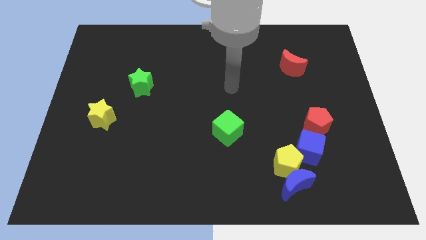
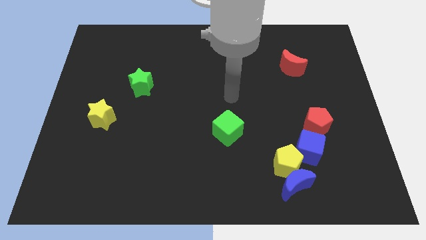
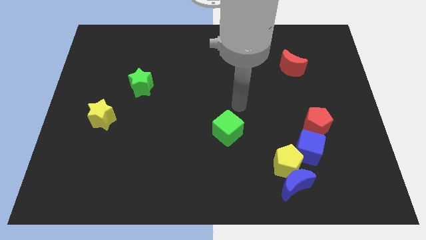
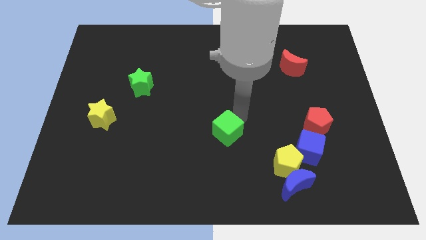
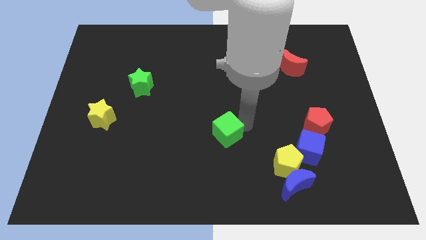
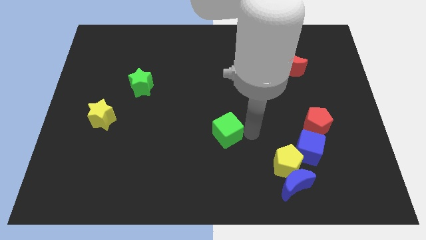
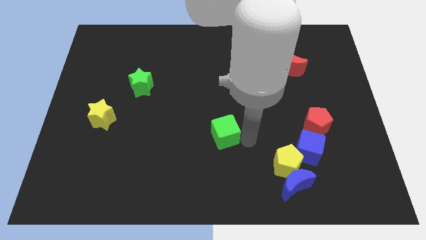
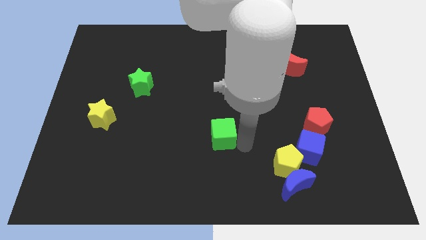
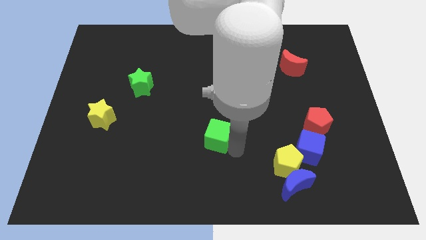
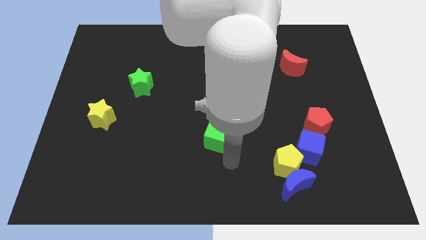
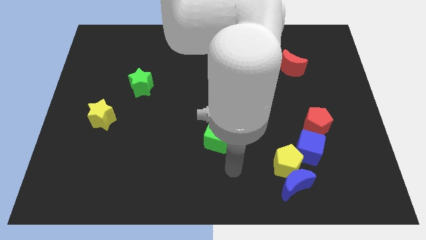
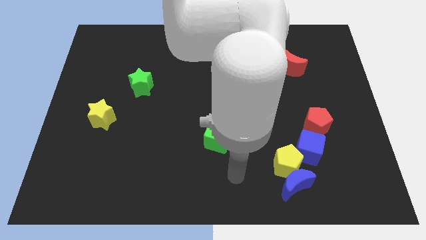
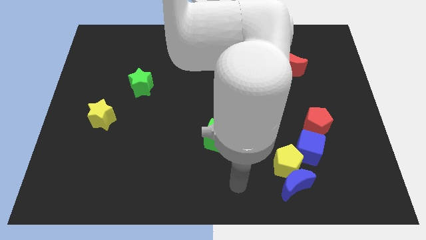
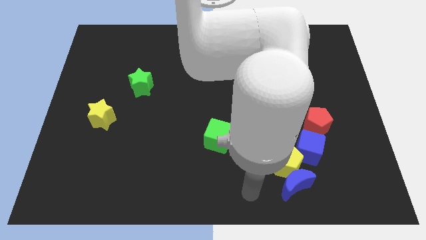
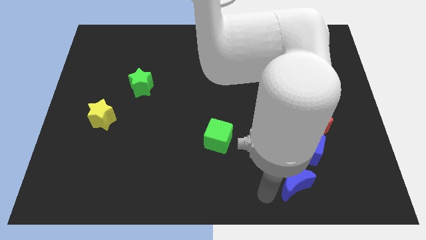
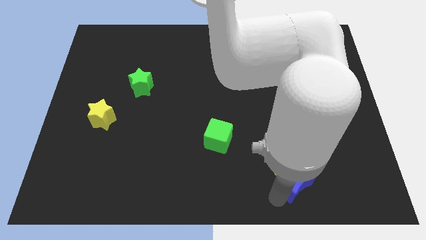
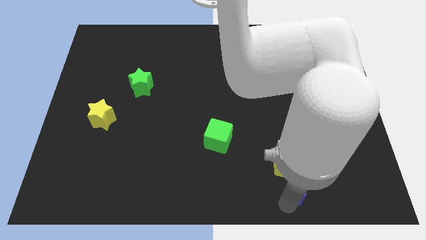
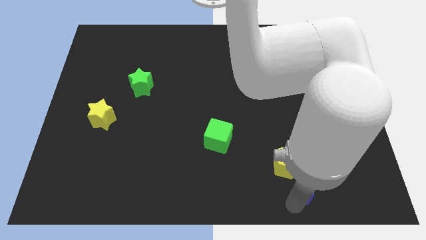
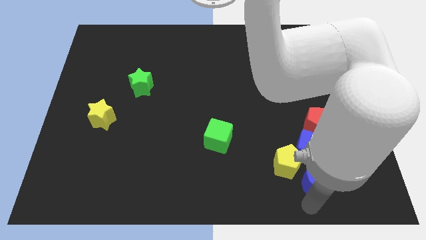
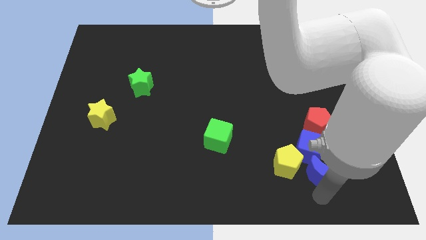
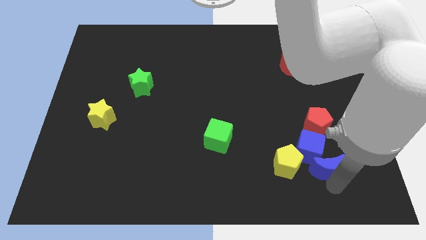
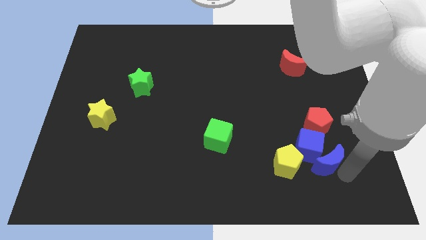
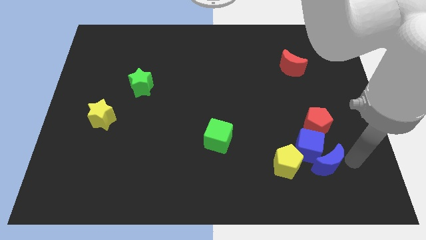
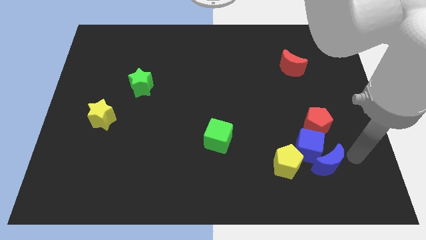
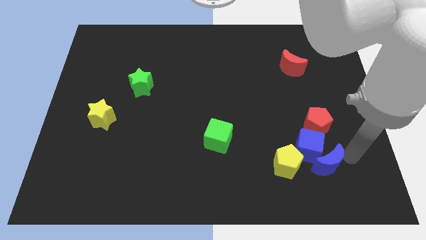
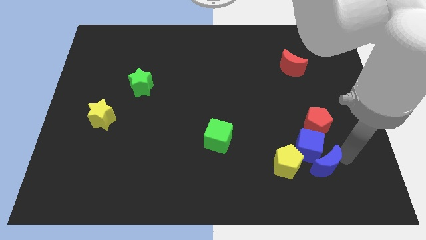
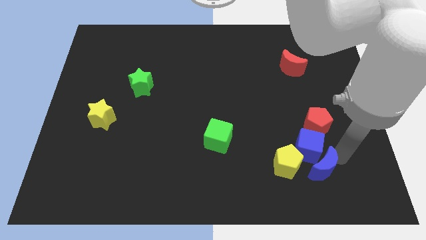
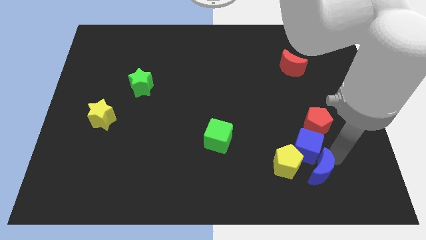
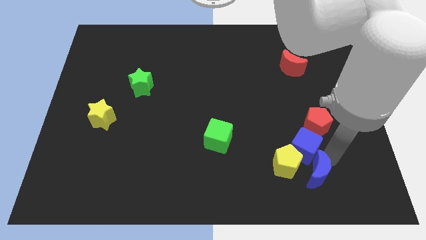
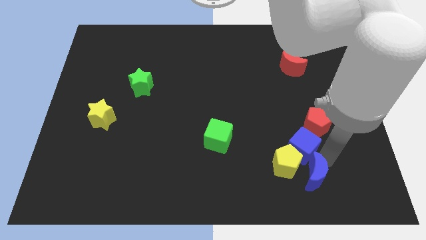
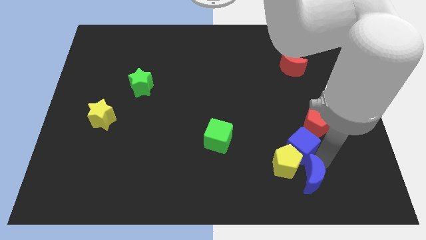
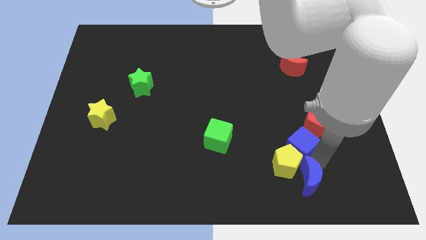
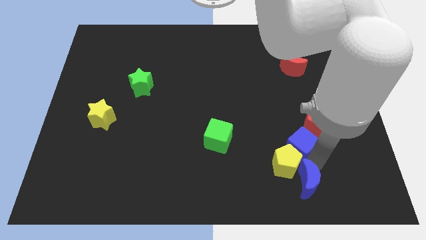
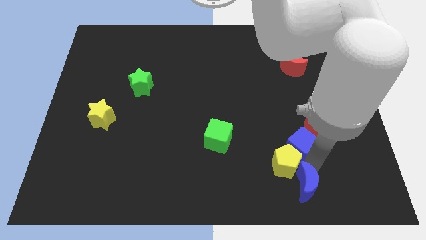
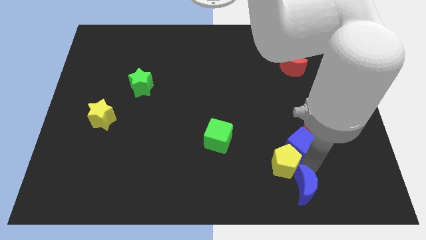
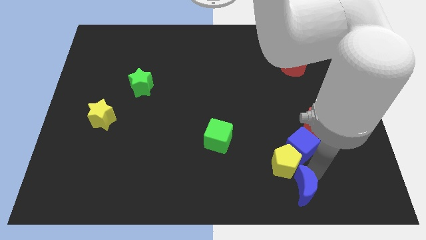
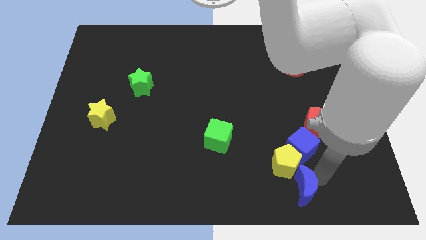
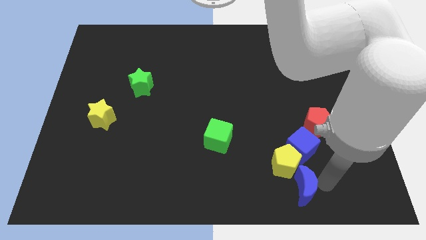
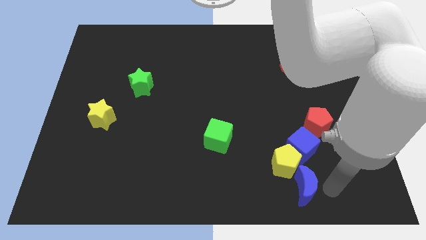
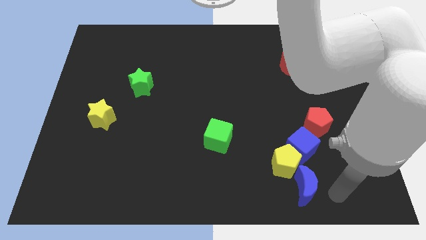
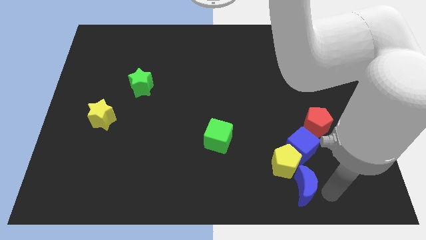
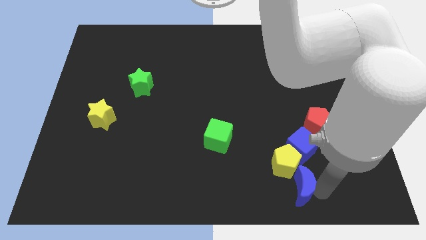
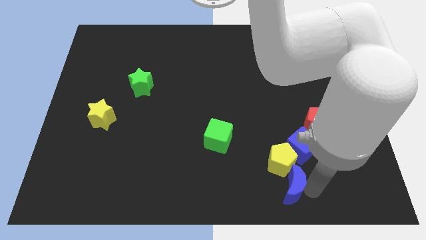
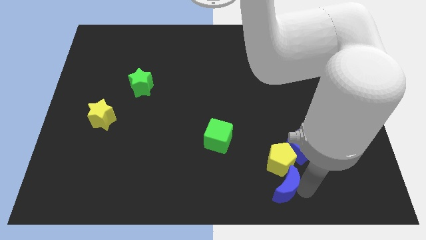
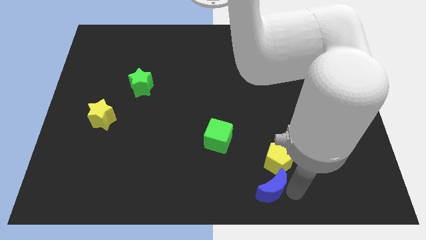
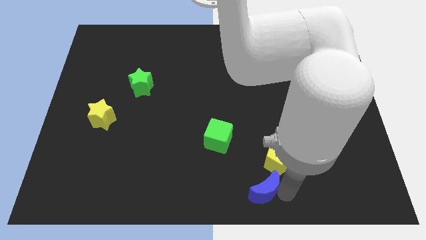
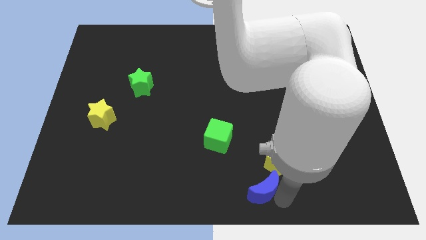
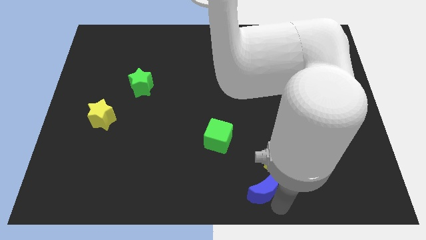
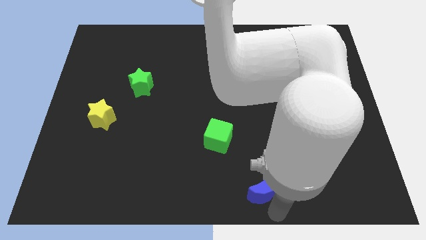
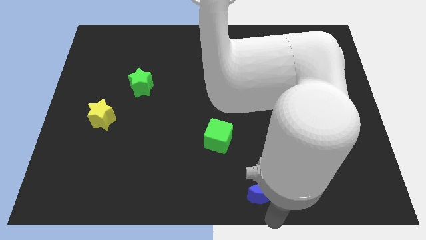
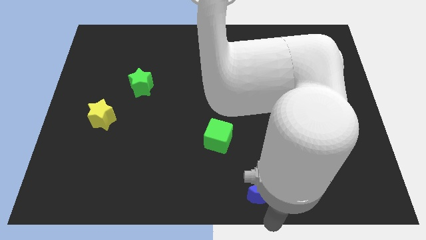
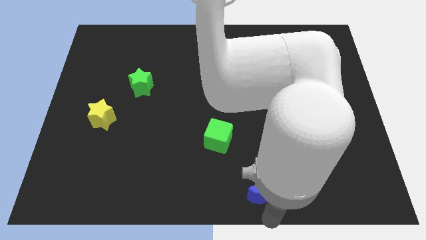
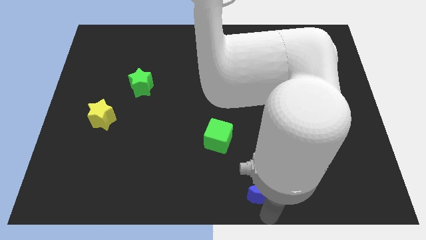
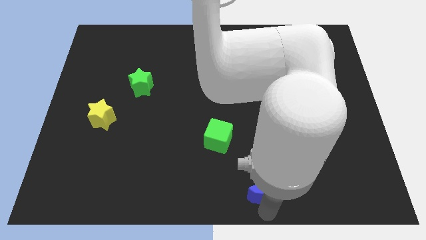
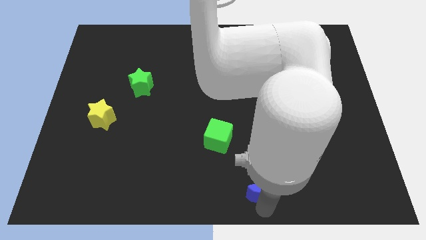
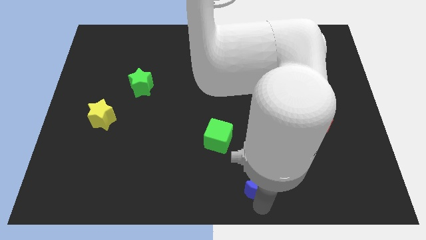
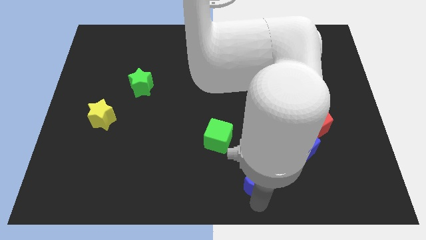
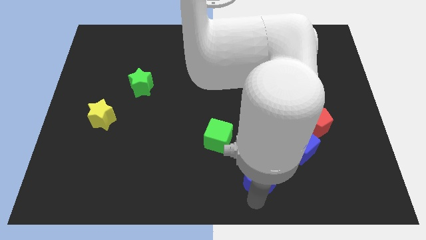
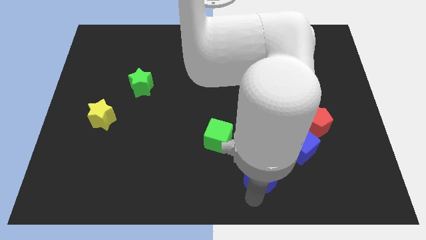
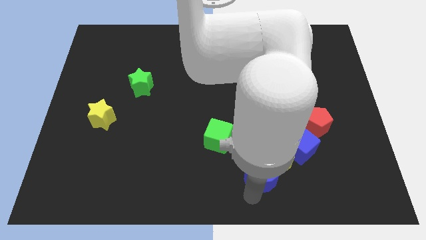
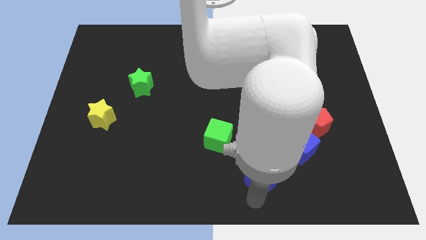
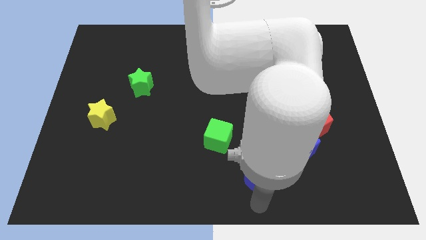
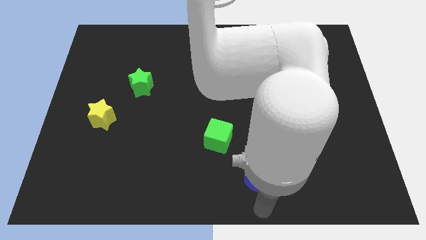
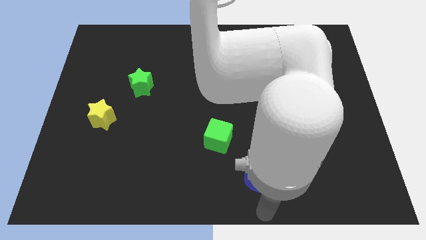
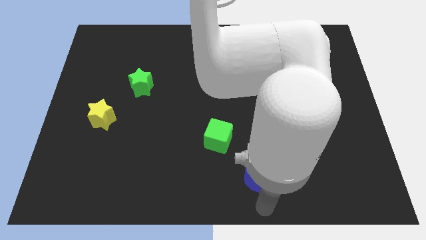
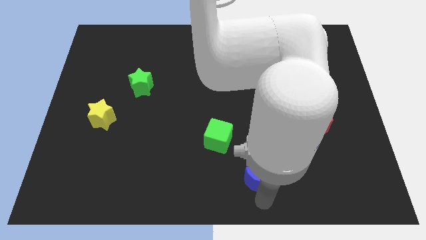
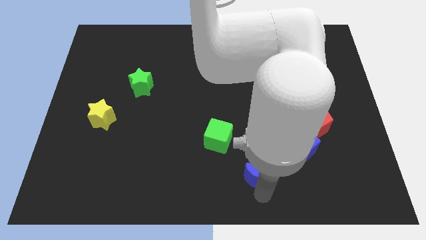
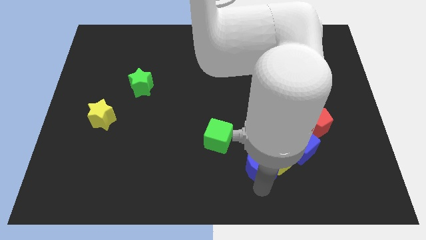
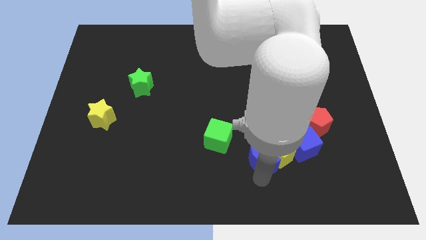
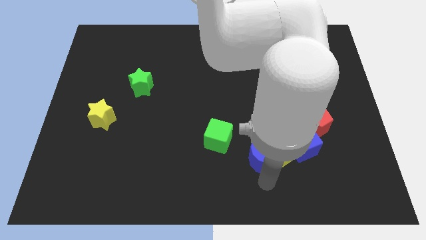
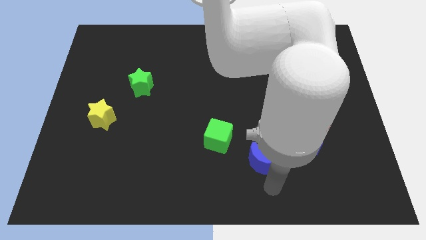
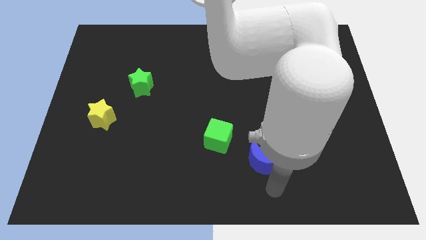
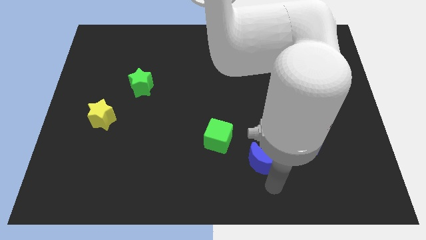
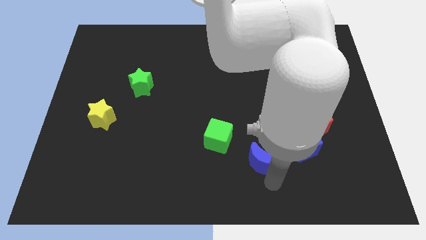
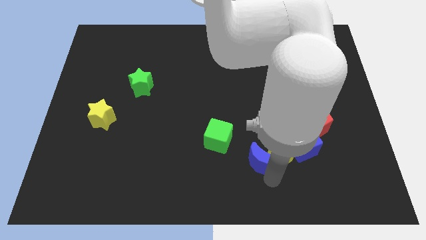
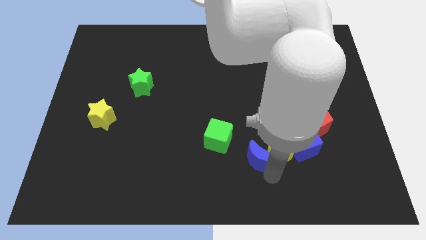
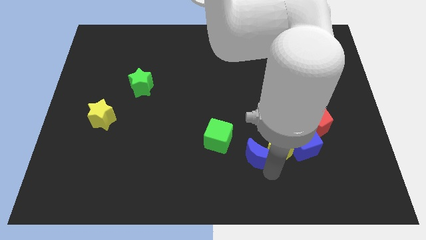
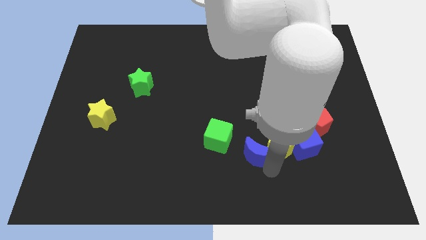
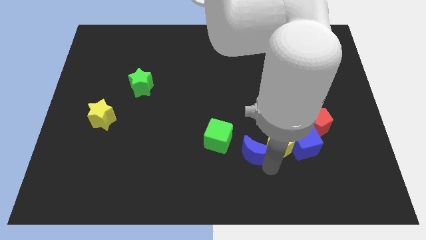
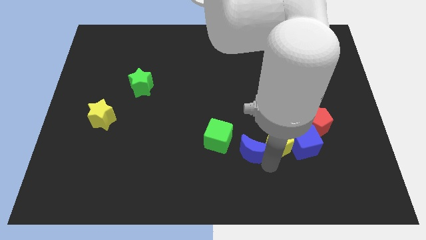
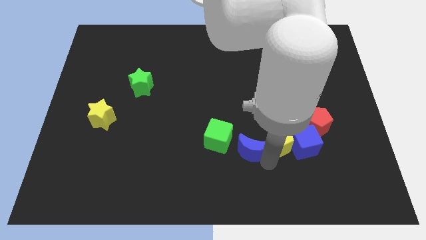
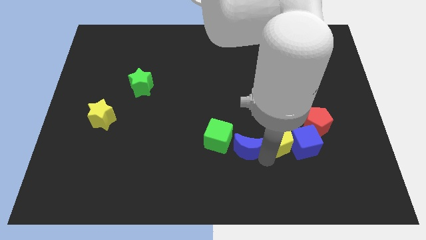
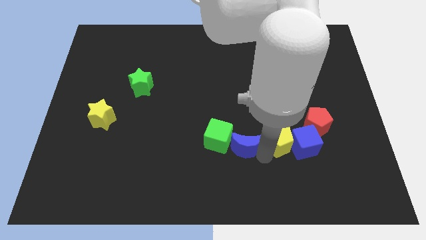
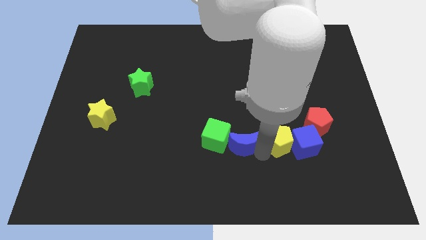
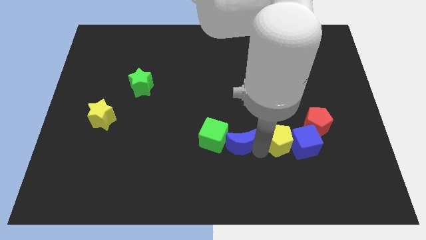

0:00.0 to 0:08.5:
move the blue moon to the green cube
